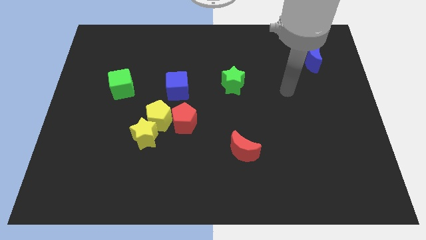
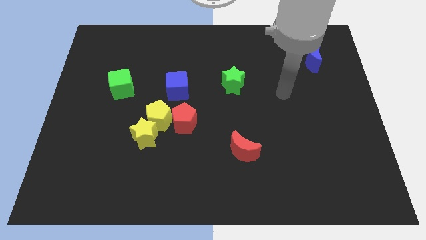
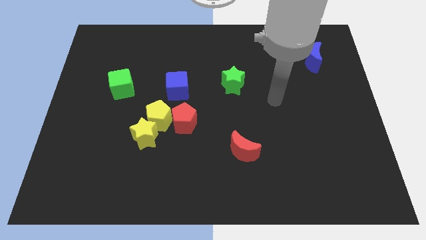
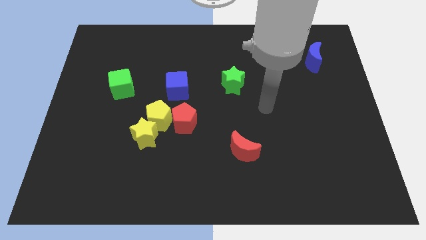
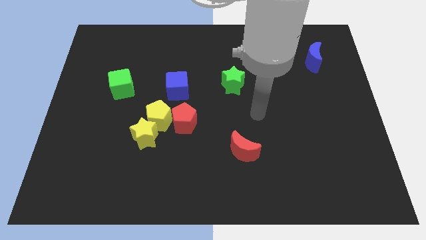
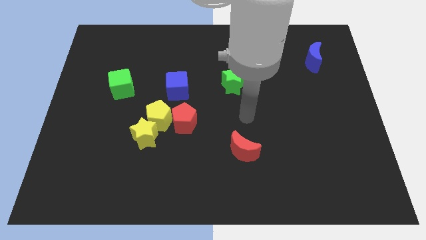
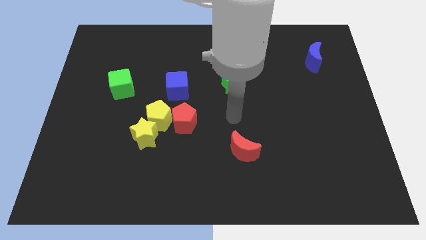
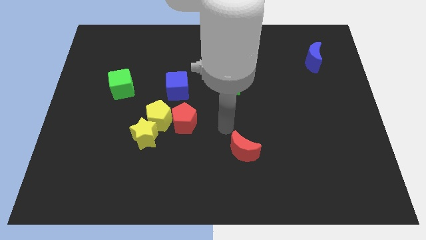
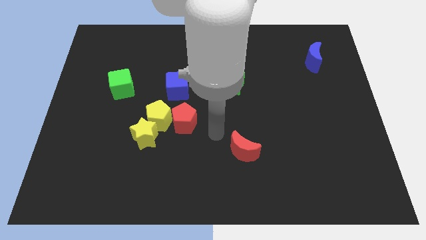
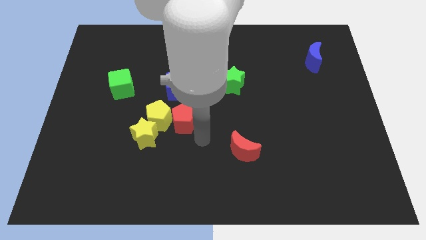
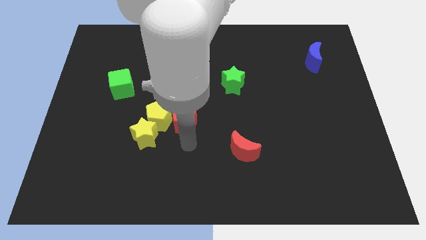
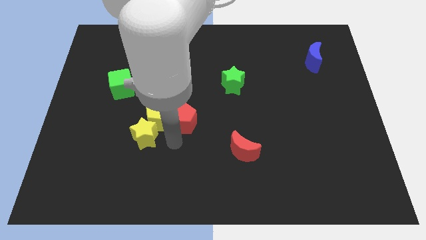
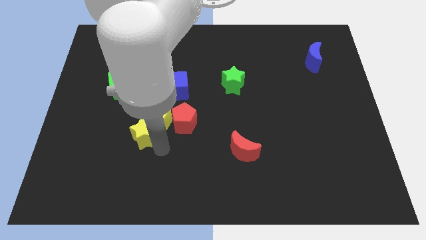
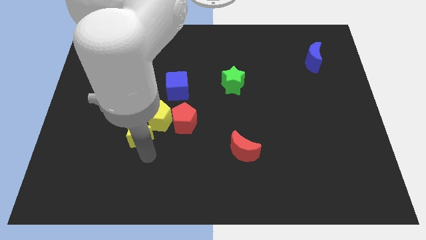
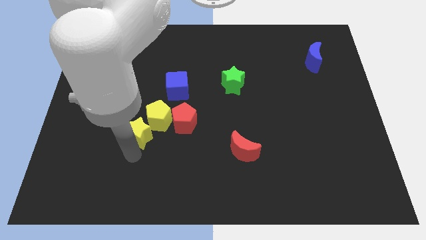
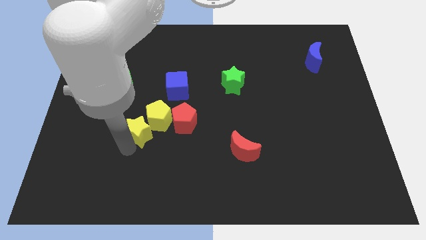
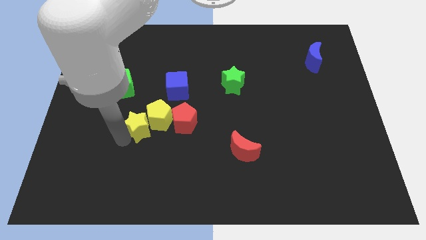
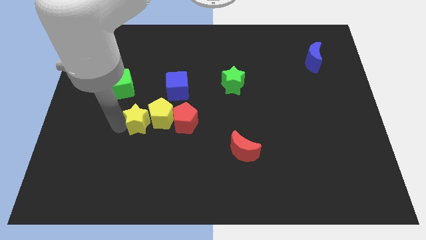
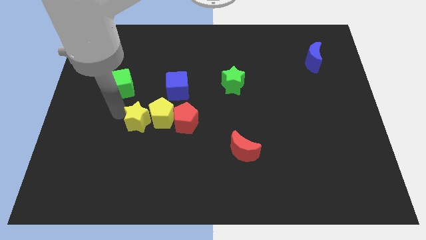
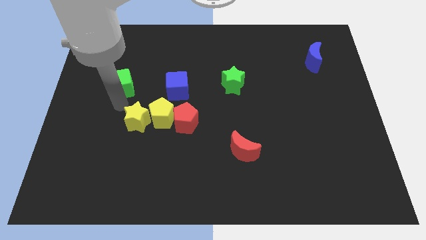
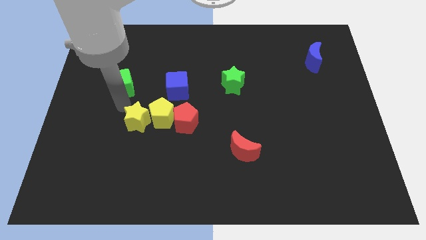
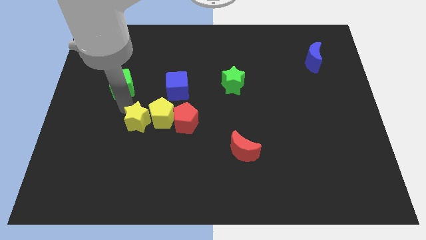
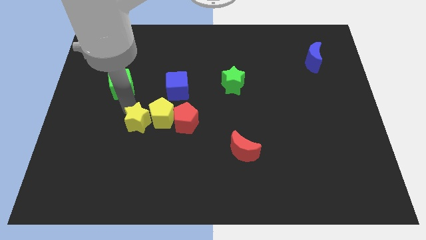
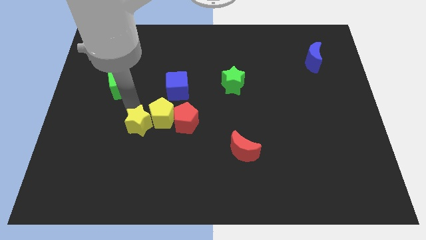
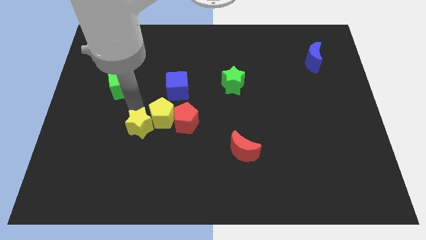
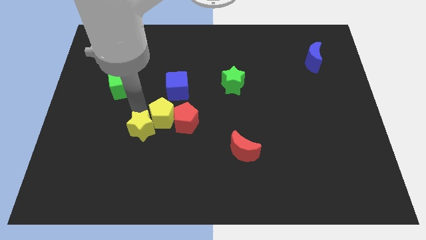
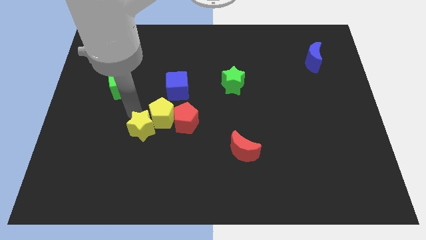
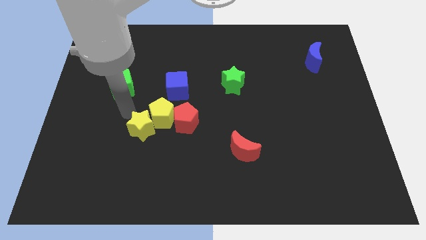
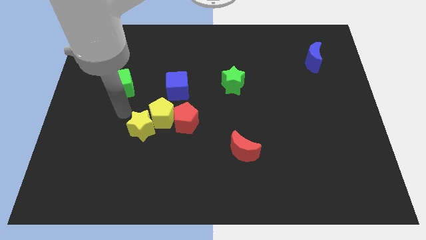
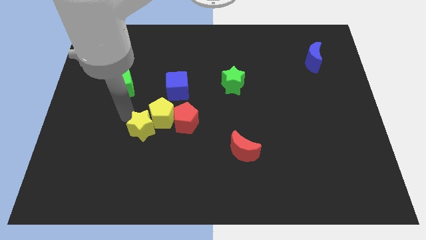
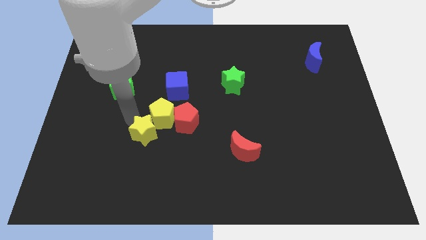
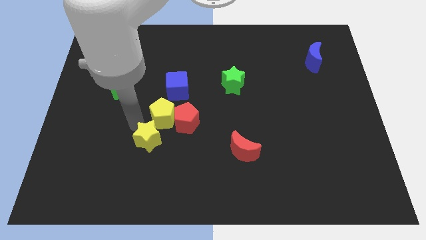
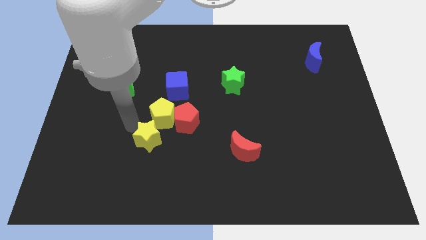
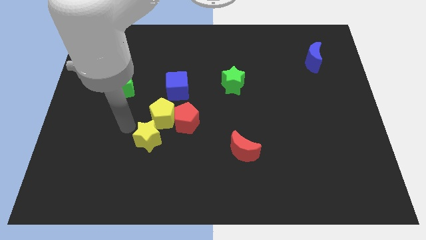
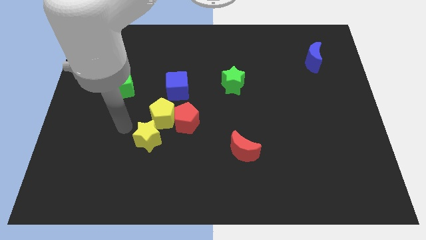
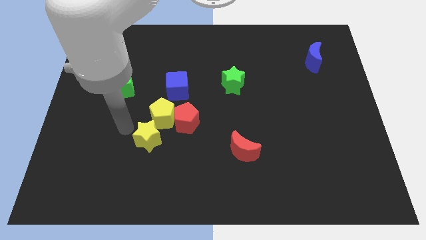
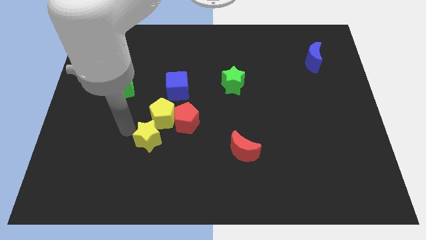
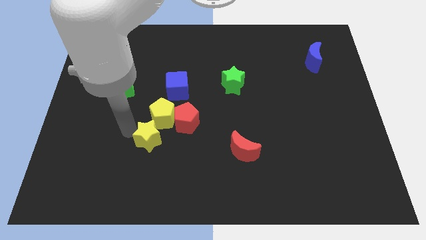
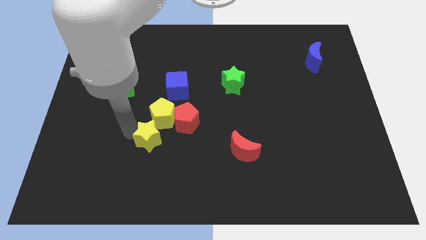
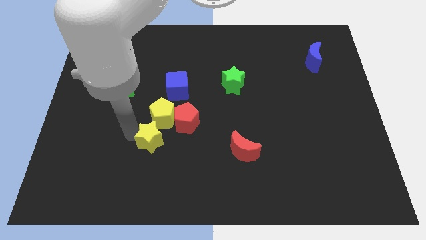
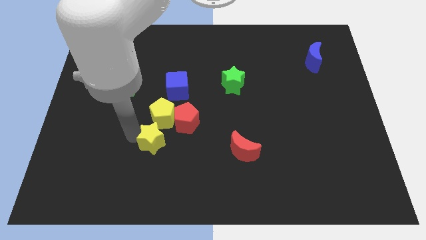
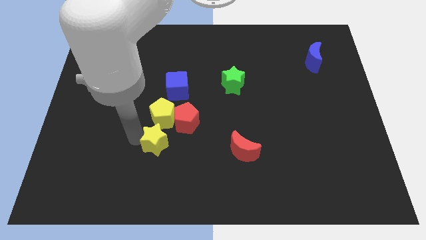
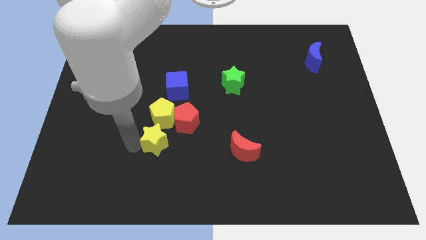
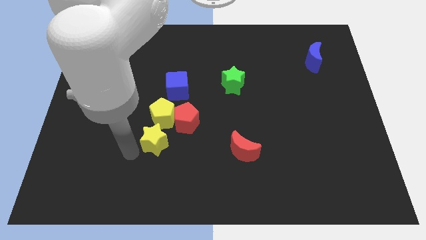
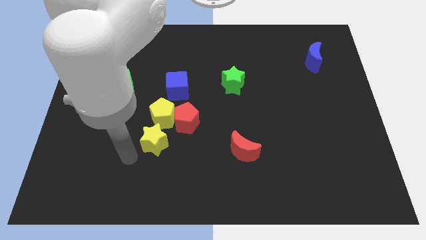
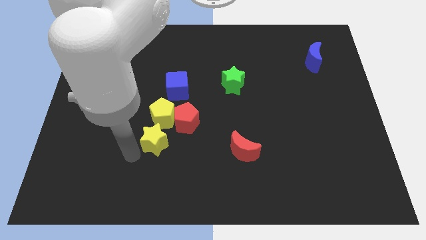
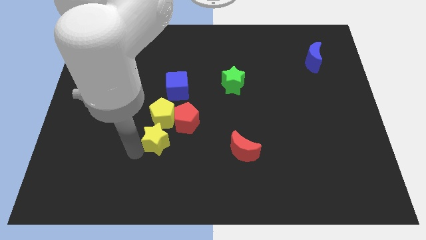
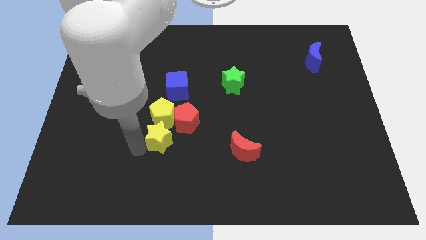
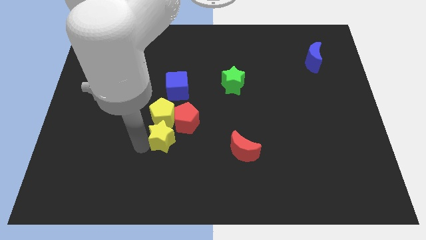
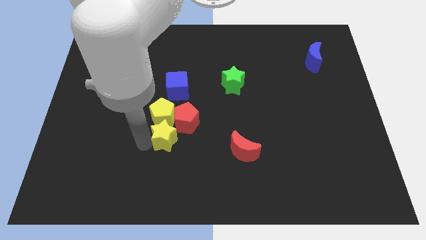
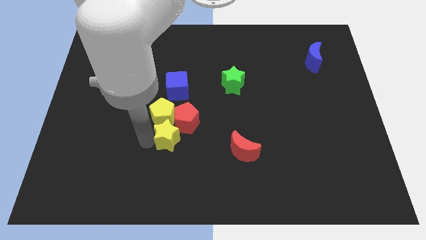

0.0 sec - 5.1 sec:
slide the yellow star to the red pentagon

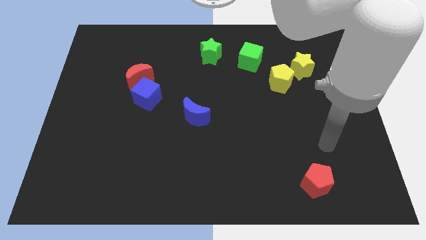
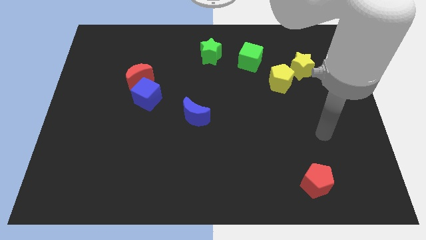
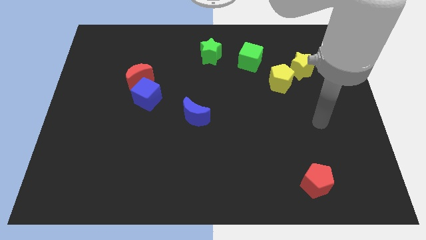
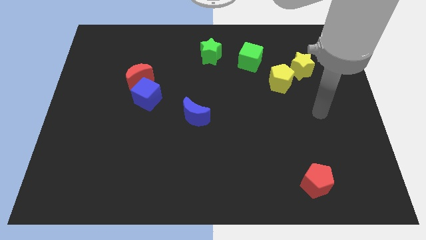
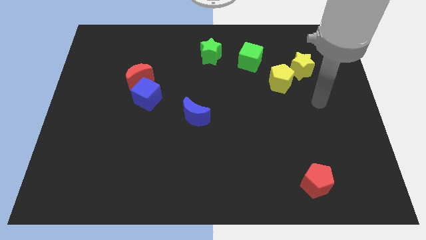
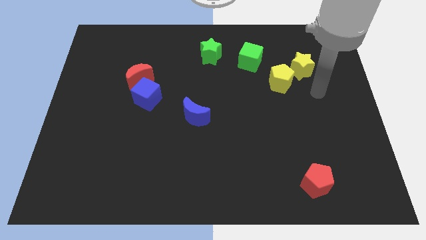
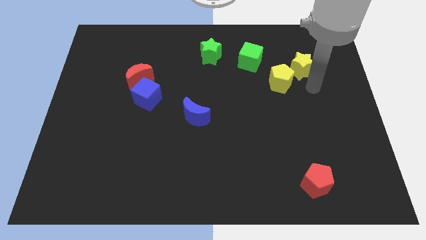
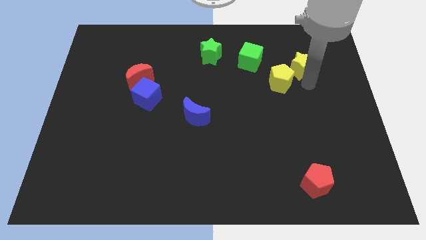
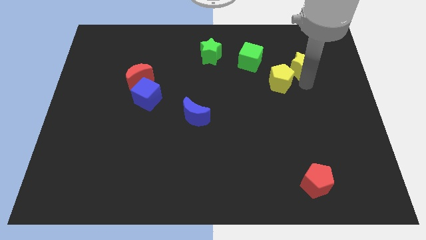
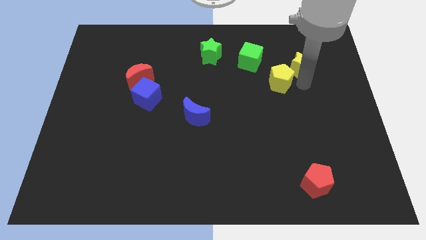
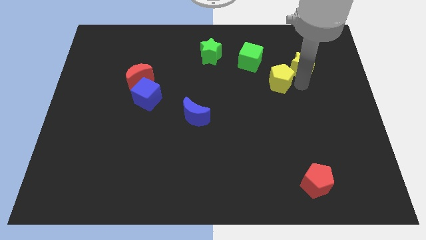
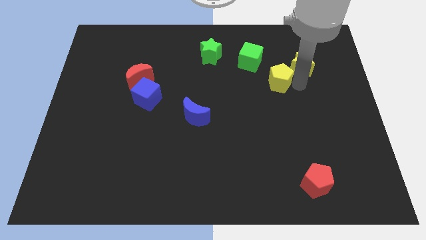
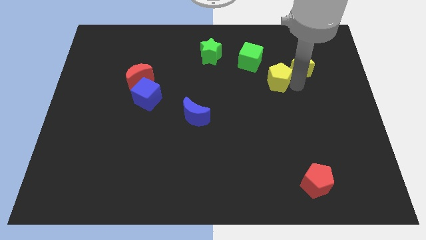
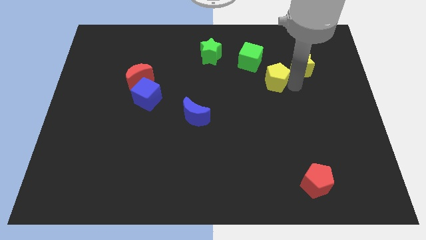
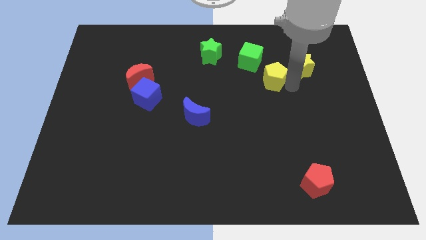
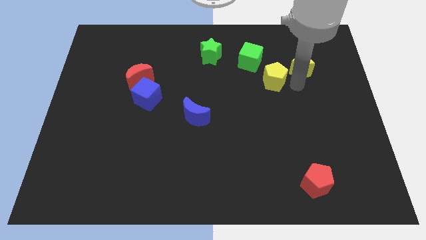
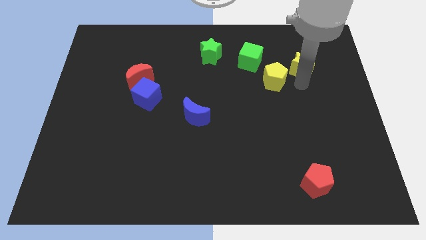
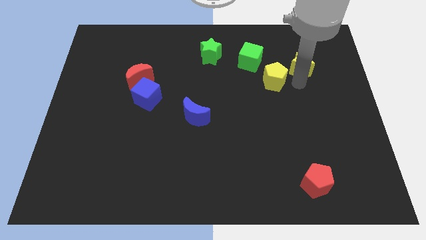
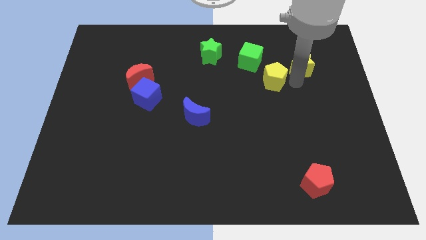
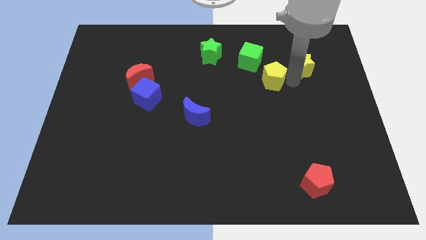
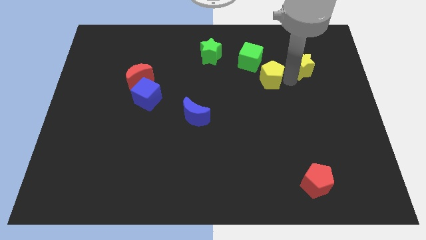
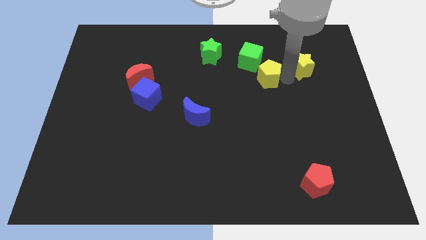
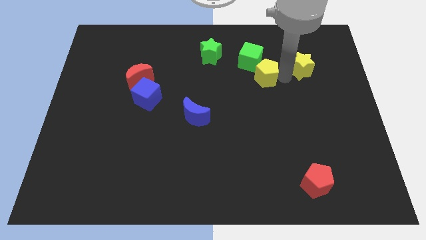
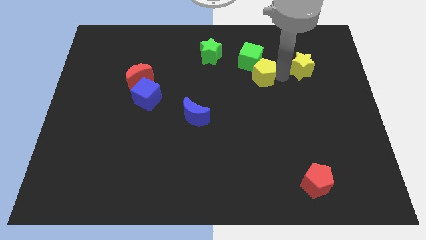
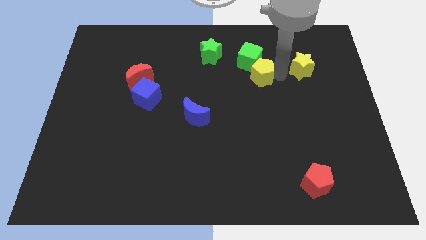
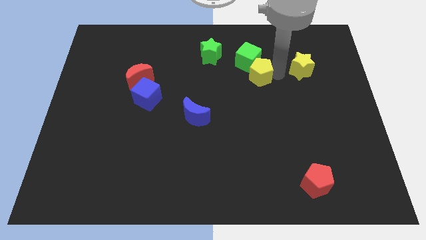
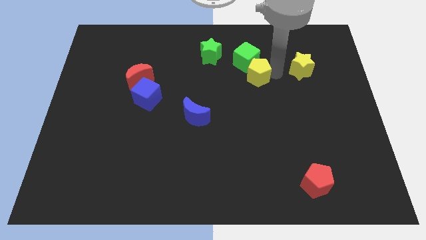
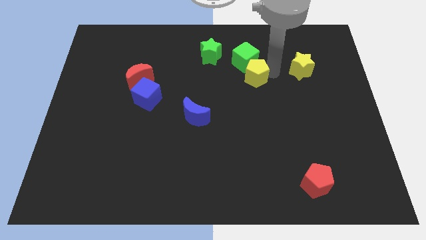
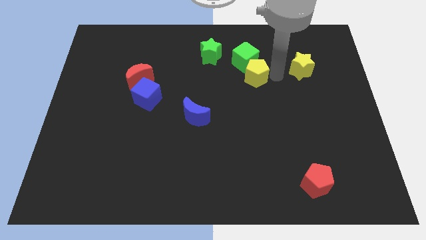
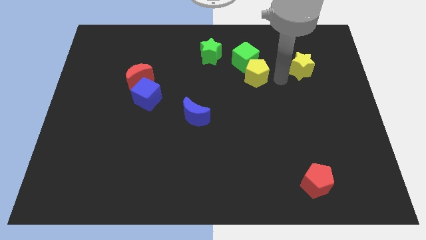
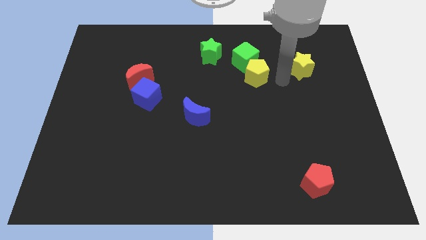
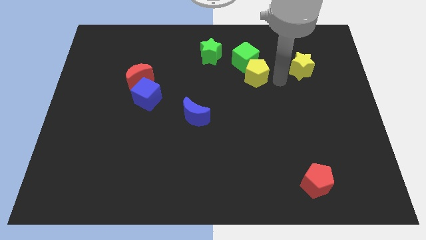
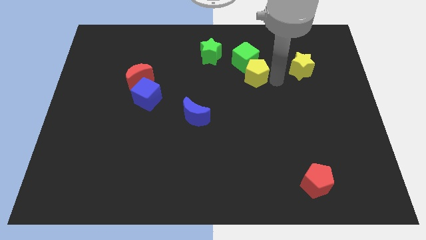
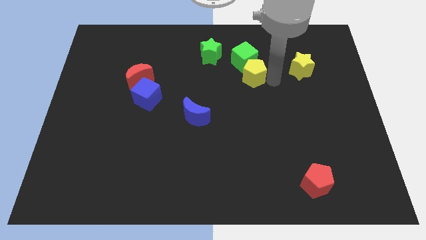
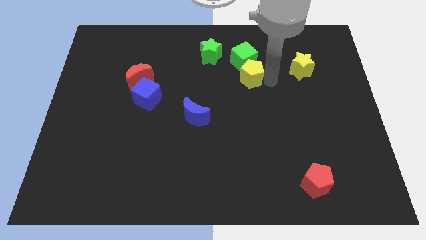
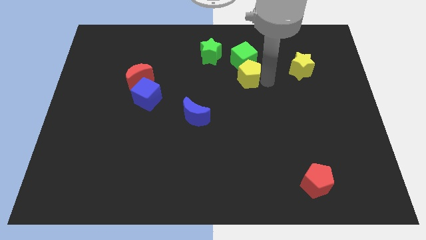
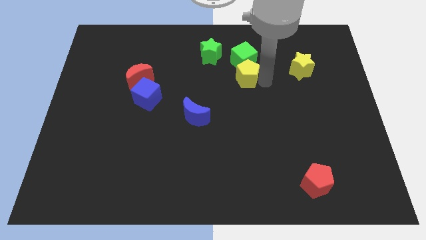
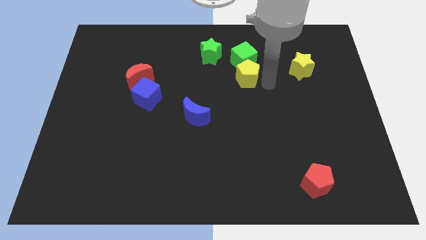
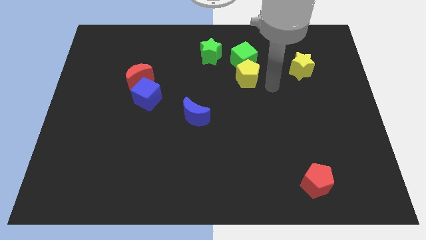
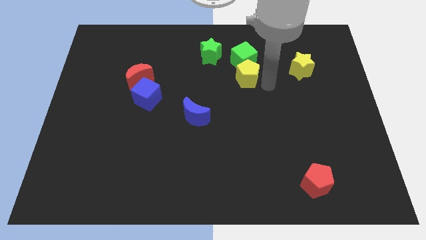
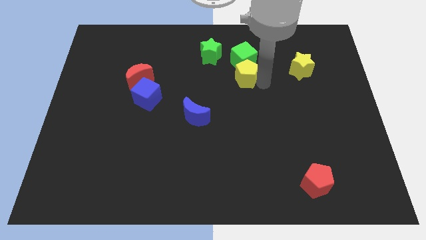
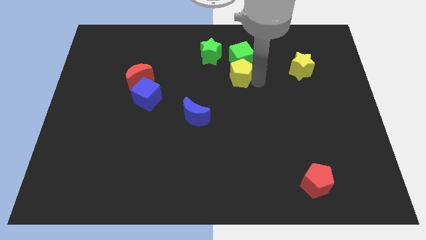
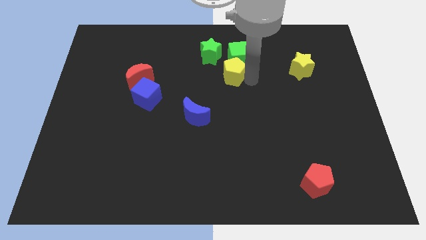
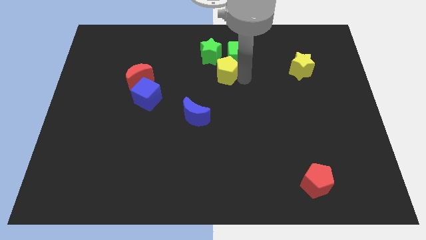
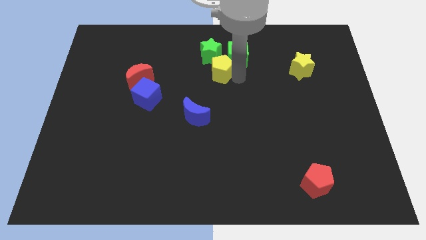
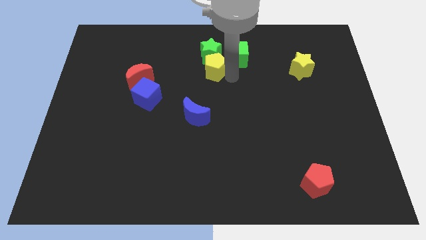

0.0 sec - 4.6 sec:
push the yellow pentagon close to the green star
